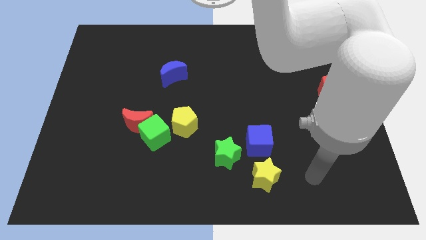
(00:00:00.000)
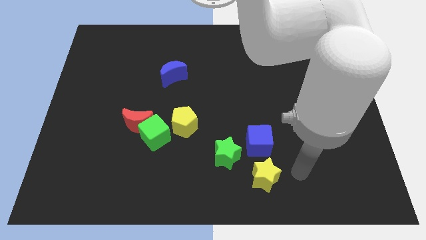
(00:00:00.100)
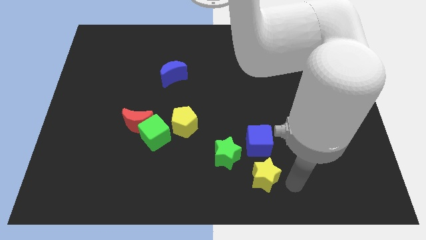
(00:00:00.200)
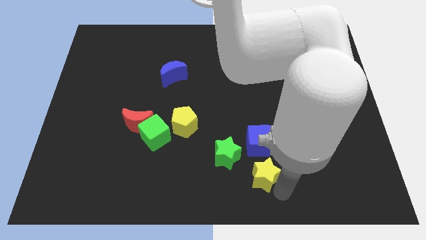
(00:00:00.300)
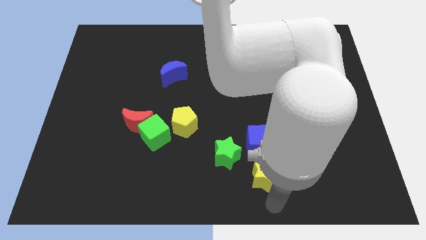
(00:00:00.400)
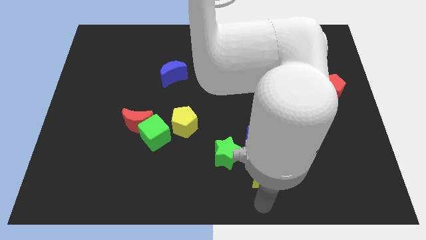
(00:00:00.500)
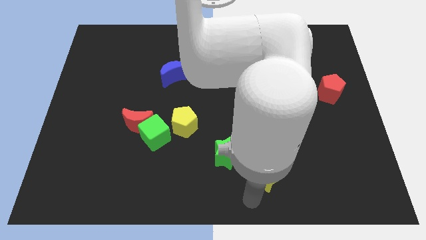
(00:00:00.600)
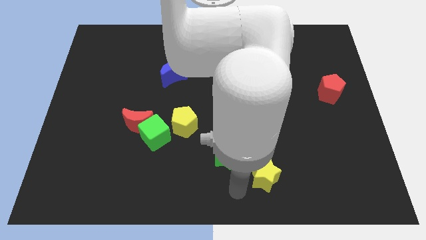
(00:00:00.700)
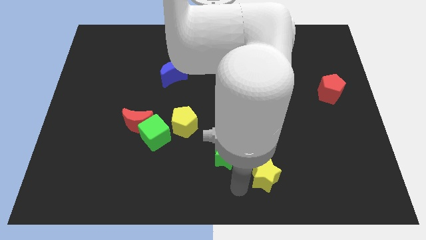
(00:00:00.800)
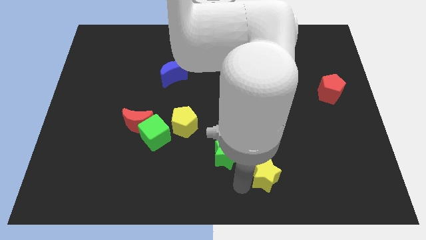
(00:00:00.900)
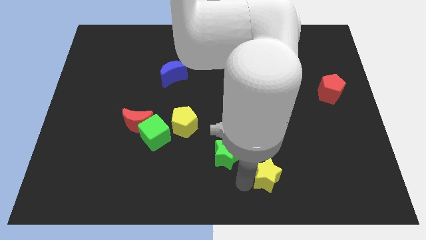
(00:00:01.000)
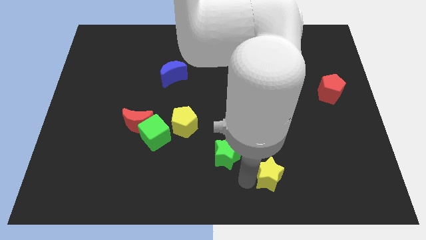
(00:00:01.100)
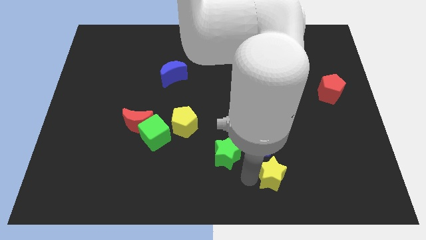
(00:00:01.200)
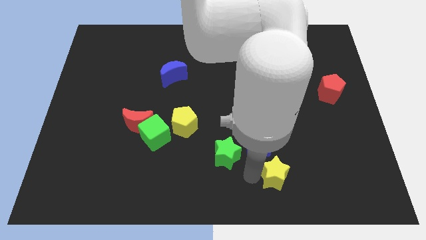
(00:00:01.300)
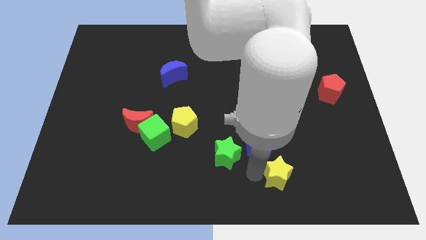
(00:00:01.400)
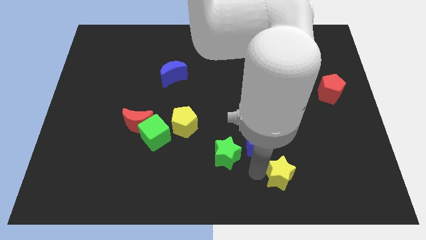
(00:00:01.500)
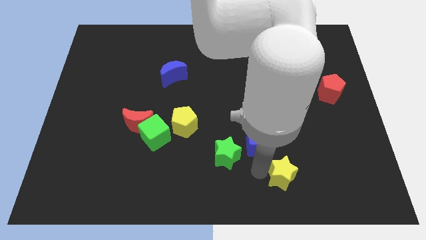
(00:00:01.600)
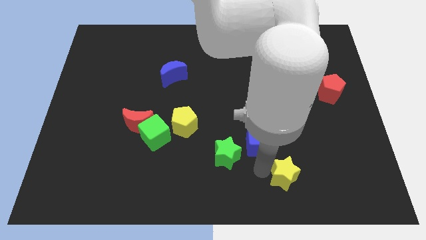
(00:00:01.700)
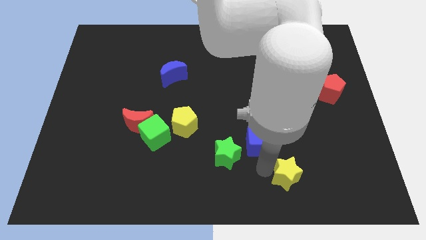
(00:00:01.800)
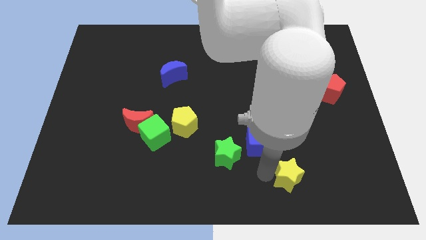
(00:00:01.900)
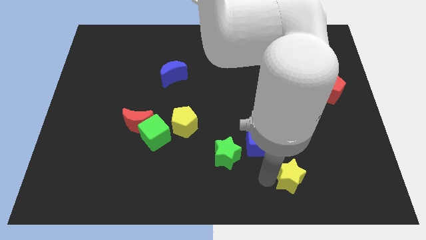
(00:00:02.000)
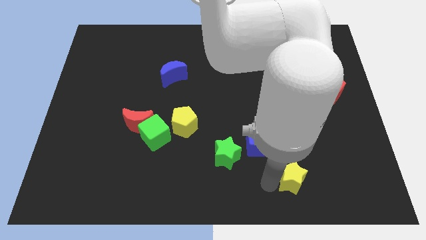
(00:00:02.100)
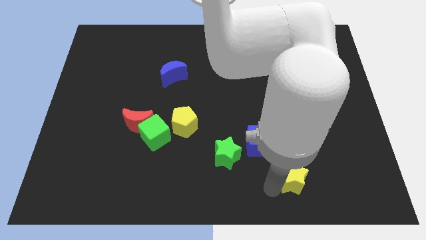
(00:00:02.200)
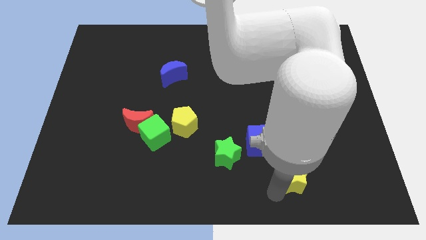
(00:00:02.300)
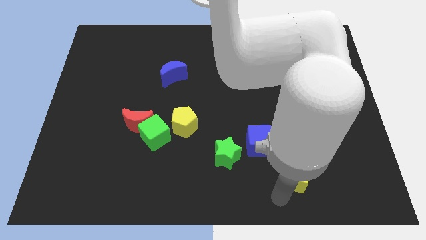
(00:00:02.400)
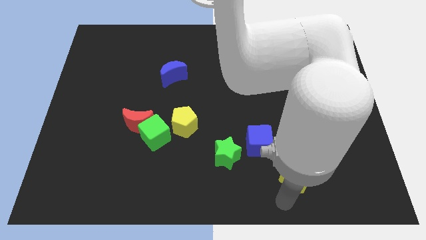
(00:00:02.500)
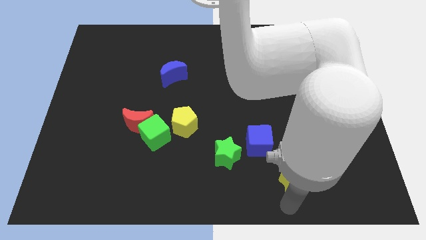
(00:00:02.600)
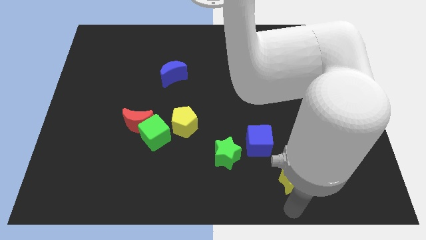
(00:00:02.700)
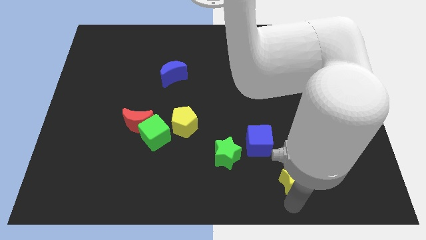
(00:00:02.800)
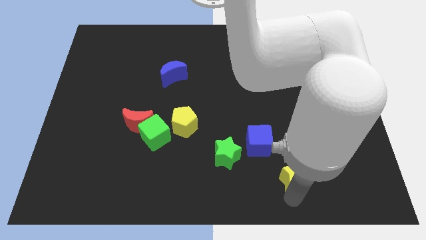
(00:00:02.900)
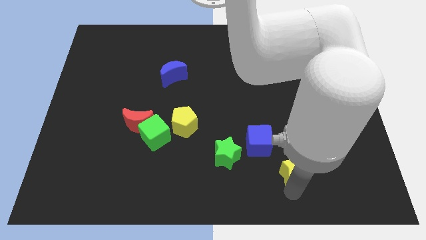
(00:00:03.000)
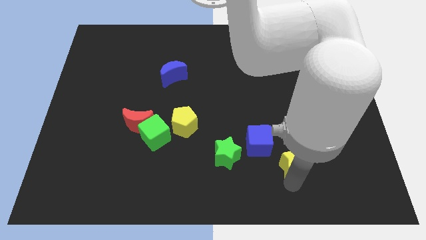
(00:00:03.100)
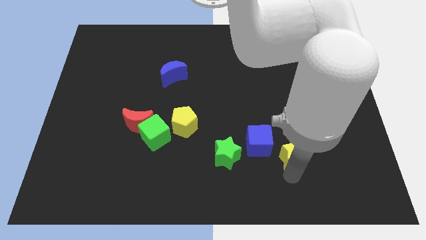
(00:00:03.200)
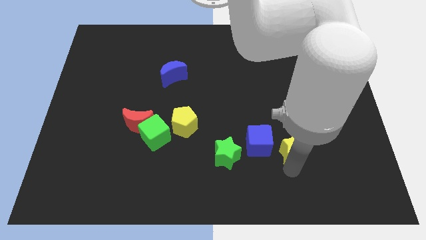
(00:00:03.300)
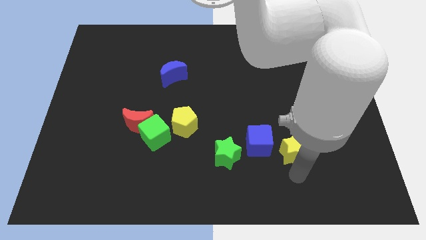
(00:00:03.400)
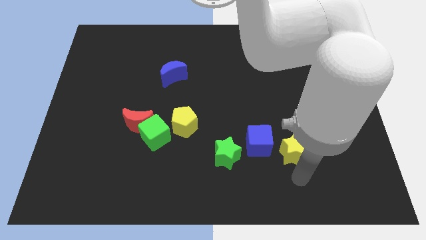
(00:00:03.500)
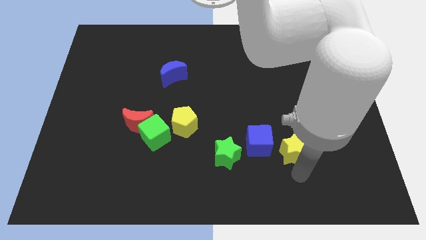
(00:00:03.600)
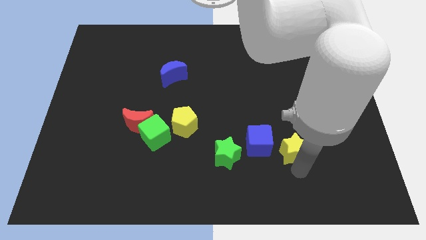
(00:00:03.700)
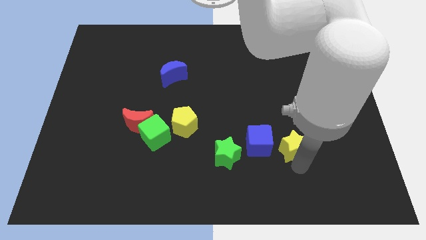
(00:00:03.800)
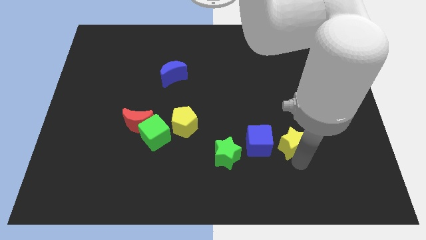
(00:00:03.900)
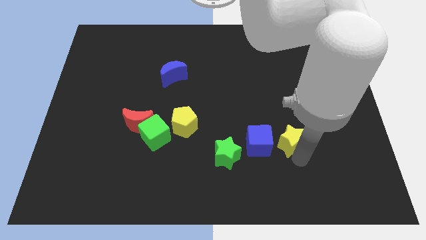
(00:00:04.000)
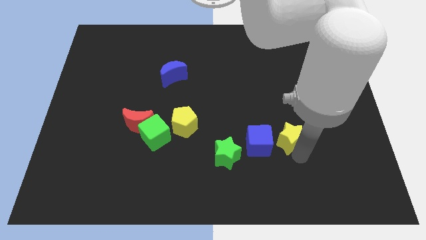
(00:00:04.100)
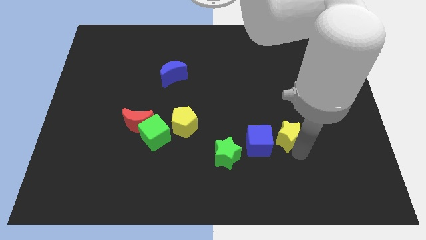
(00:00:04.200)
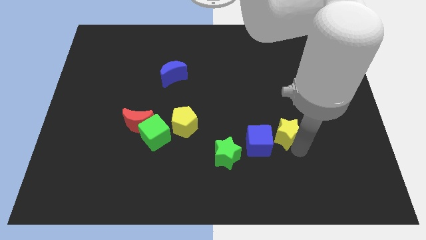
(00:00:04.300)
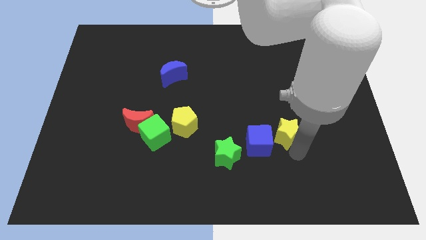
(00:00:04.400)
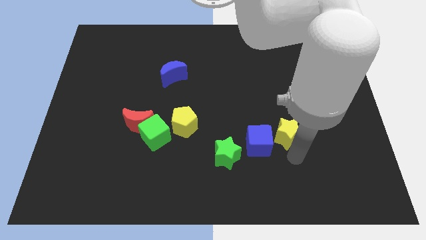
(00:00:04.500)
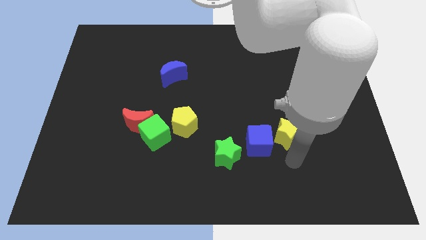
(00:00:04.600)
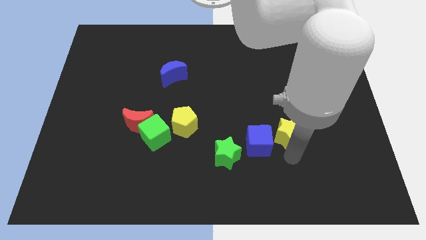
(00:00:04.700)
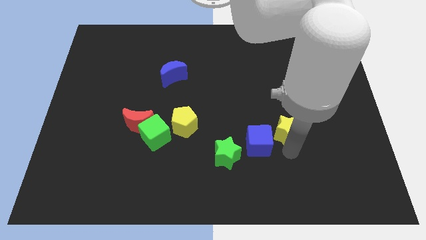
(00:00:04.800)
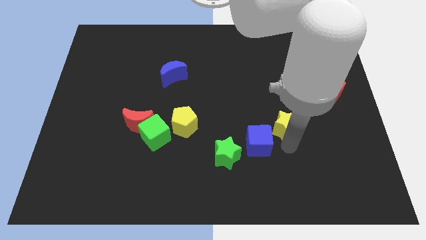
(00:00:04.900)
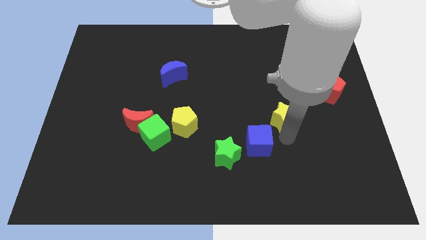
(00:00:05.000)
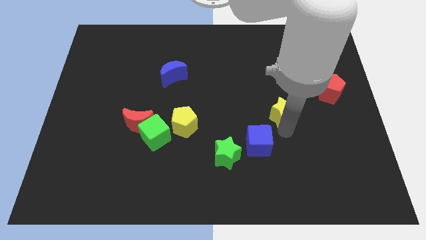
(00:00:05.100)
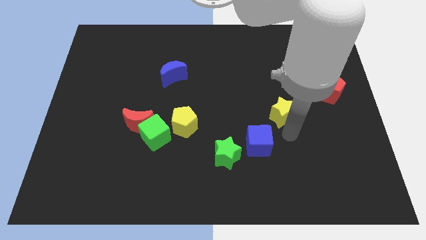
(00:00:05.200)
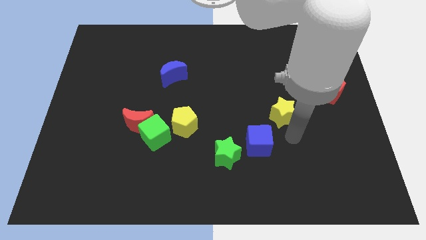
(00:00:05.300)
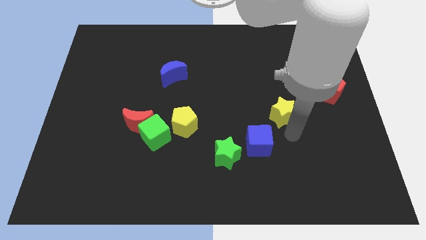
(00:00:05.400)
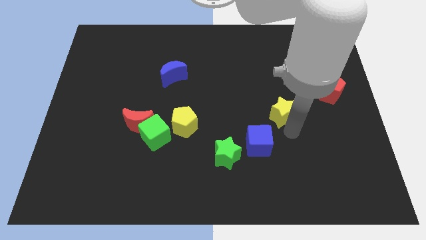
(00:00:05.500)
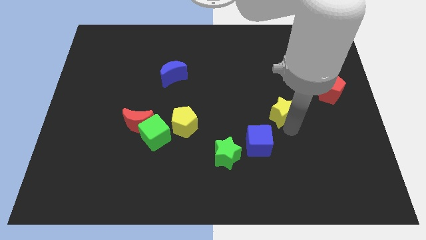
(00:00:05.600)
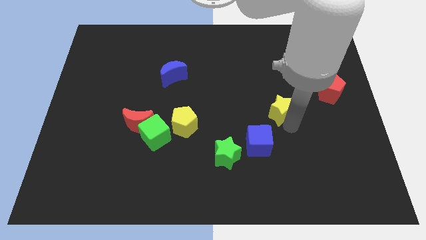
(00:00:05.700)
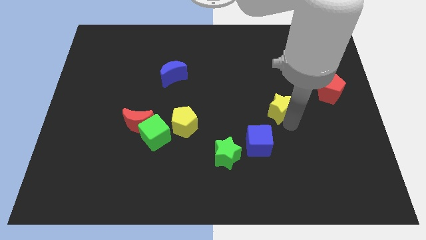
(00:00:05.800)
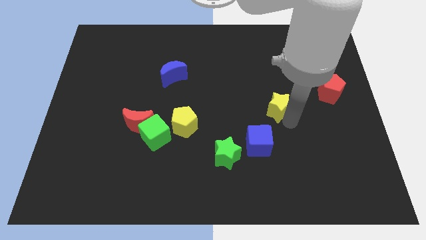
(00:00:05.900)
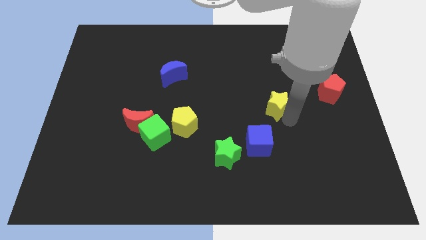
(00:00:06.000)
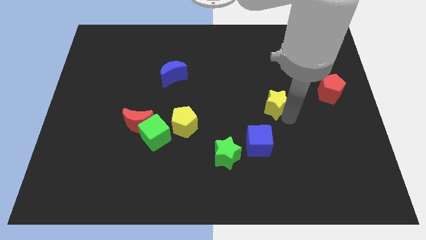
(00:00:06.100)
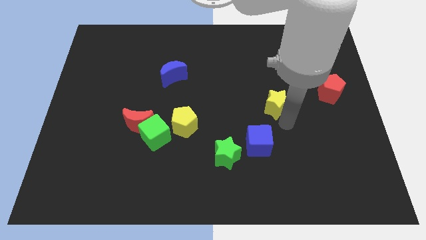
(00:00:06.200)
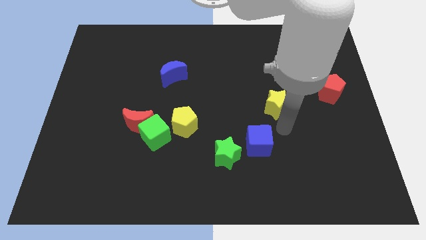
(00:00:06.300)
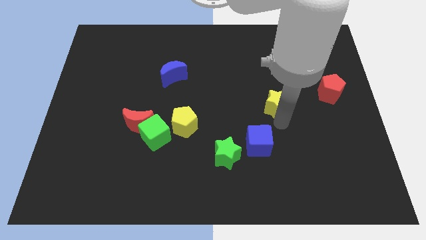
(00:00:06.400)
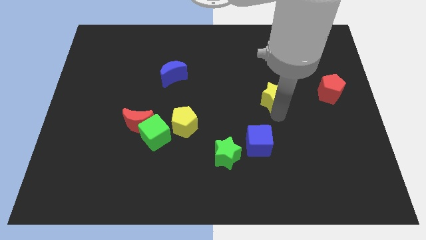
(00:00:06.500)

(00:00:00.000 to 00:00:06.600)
move the yellow star upwards

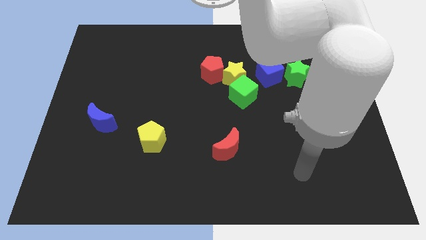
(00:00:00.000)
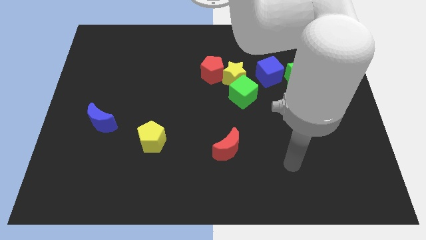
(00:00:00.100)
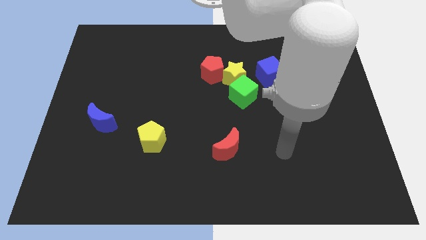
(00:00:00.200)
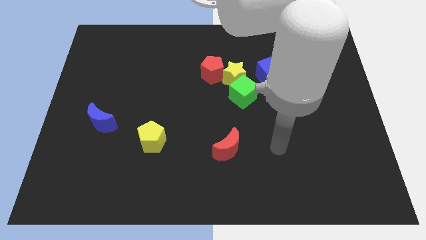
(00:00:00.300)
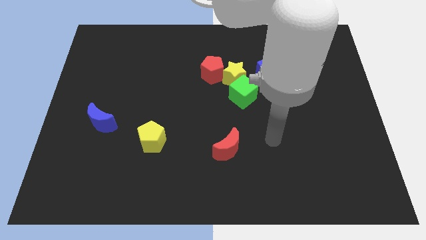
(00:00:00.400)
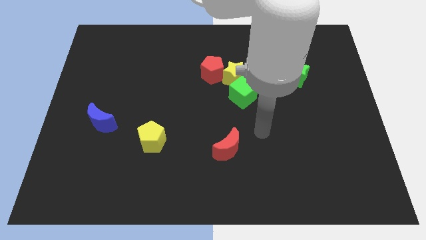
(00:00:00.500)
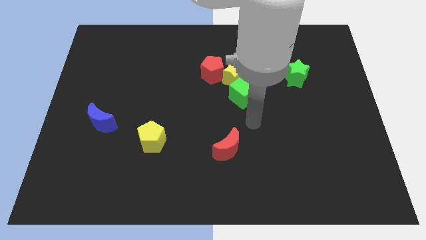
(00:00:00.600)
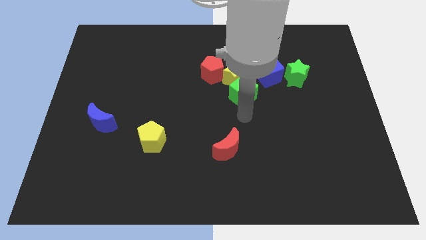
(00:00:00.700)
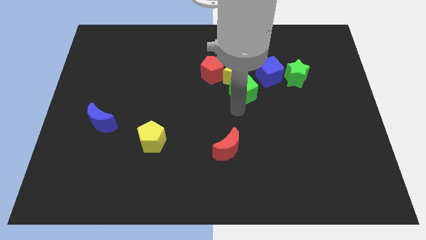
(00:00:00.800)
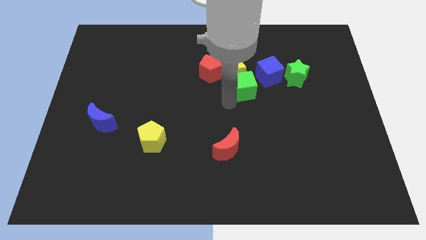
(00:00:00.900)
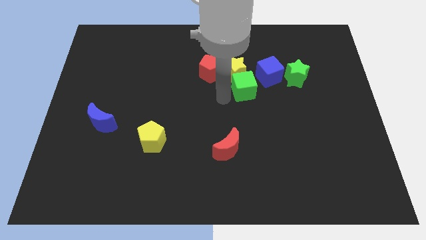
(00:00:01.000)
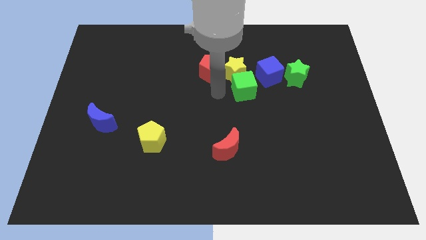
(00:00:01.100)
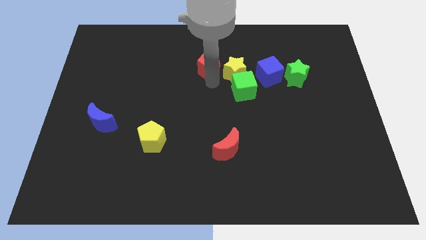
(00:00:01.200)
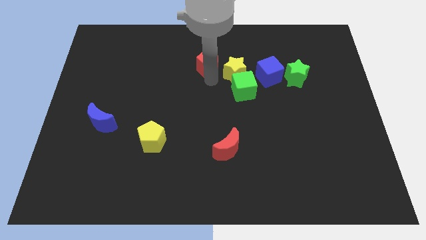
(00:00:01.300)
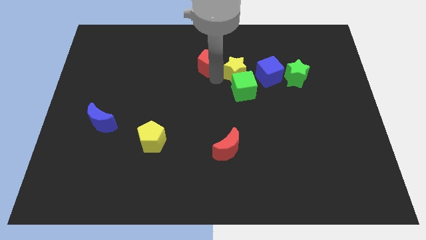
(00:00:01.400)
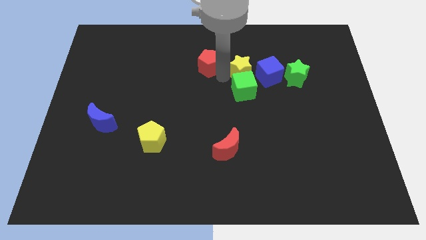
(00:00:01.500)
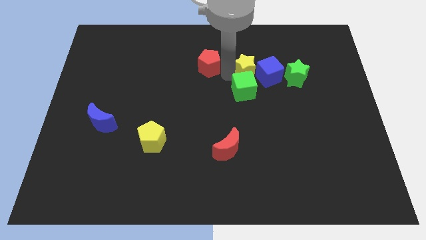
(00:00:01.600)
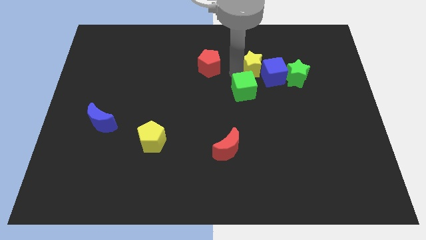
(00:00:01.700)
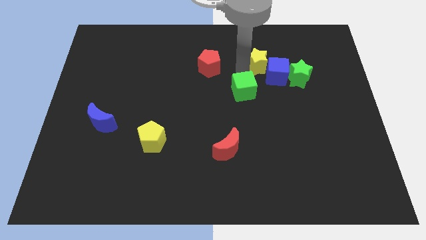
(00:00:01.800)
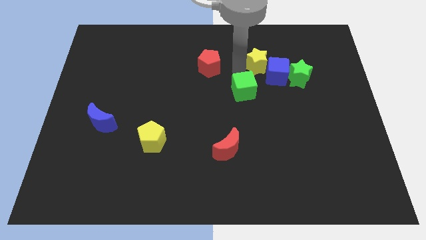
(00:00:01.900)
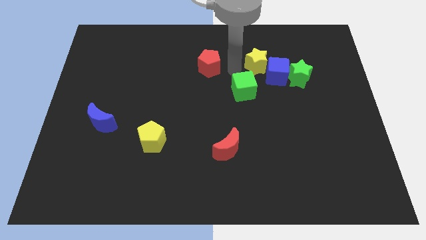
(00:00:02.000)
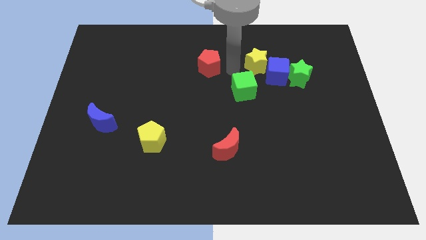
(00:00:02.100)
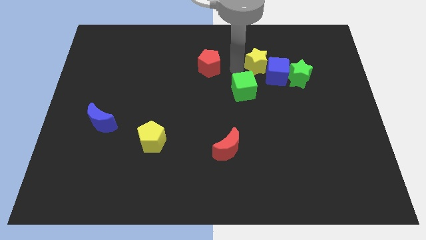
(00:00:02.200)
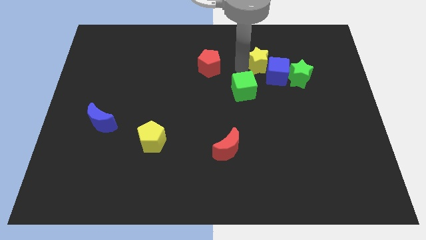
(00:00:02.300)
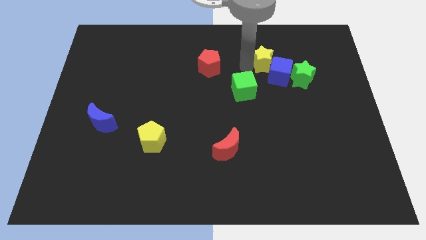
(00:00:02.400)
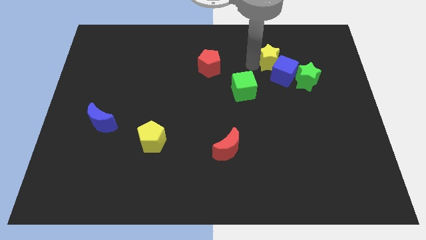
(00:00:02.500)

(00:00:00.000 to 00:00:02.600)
move the yellow star slightly right
